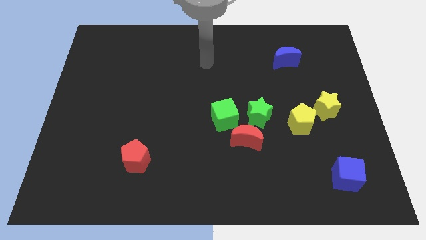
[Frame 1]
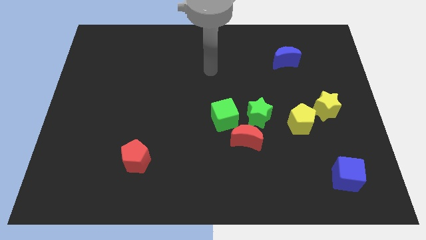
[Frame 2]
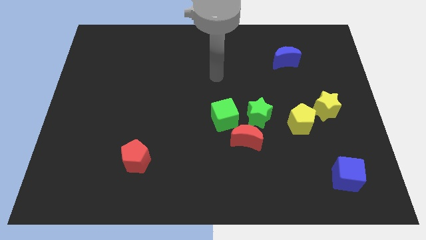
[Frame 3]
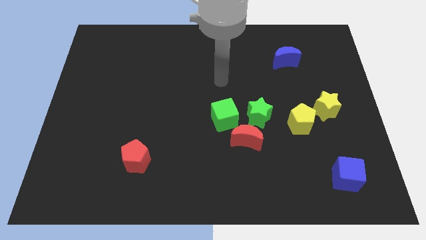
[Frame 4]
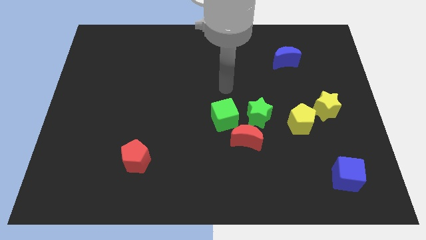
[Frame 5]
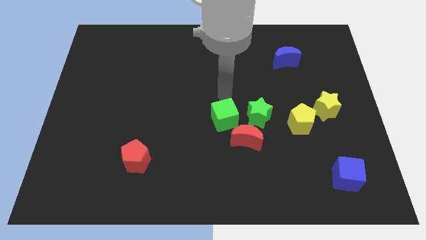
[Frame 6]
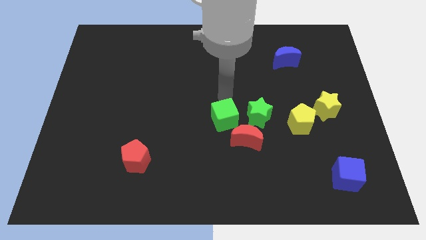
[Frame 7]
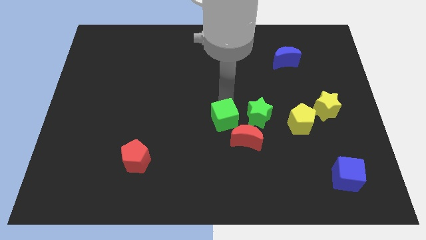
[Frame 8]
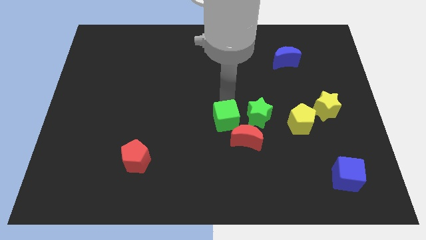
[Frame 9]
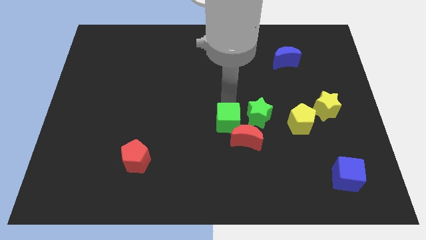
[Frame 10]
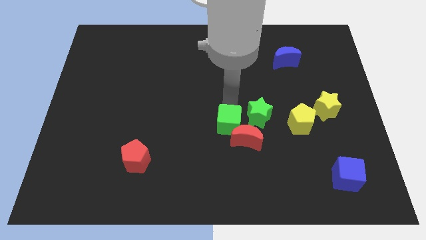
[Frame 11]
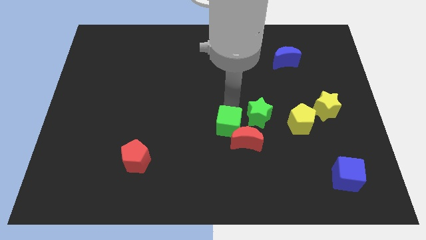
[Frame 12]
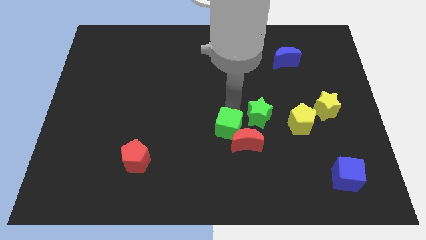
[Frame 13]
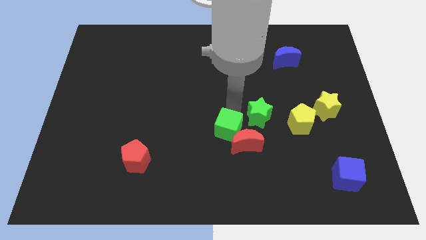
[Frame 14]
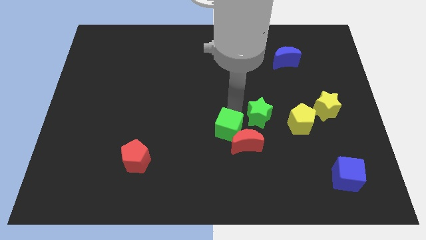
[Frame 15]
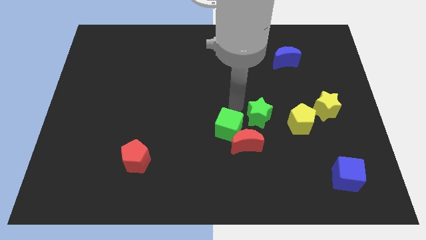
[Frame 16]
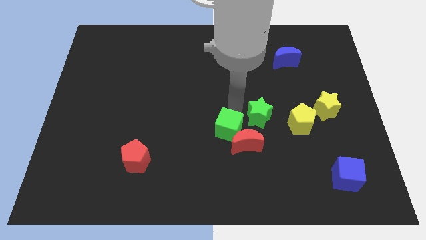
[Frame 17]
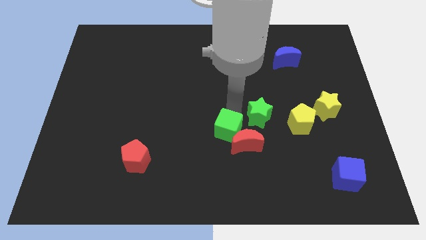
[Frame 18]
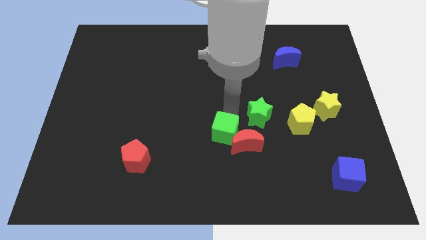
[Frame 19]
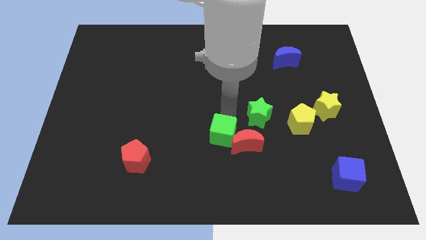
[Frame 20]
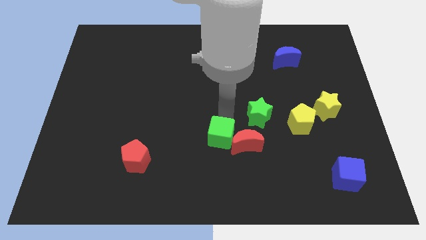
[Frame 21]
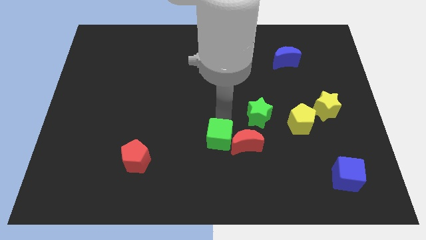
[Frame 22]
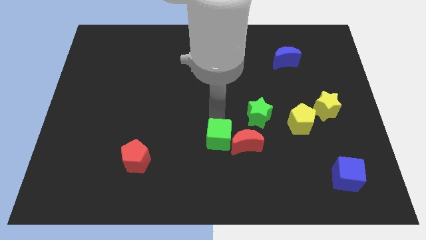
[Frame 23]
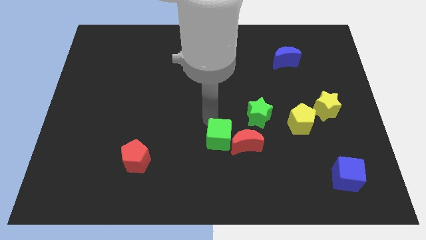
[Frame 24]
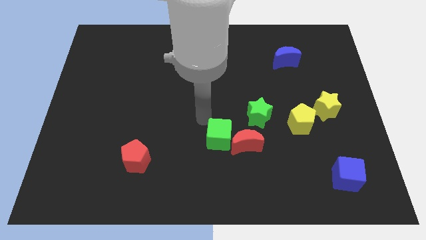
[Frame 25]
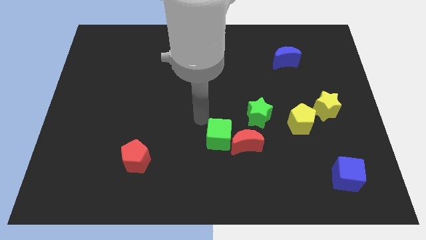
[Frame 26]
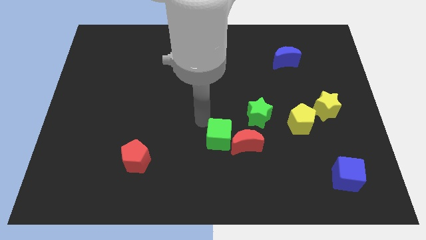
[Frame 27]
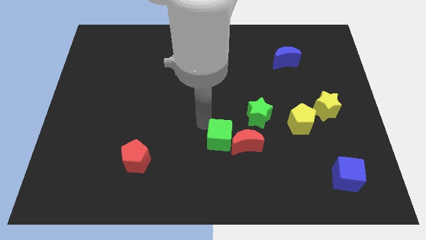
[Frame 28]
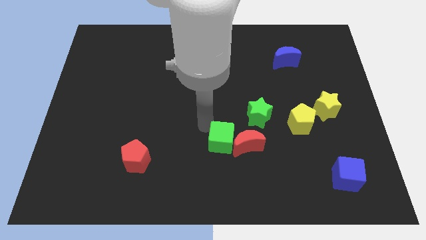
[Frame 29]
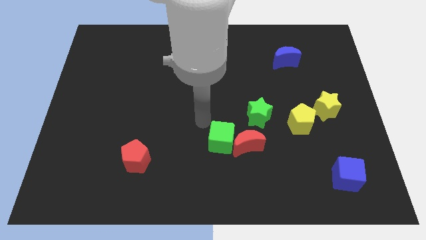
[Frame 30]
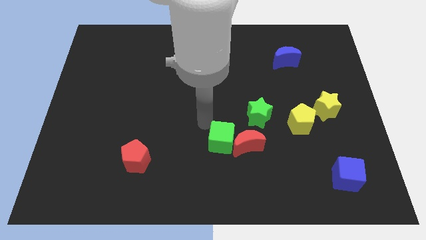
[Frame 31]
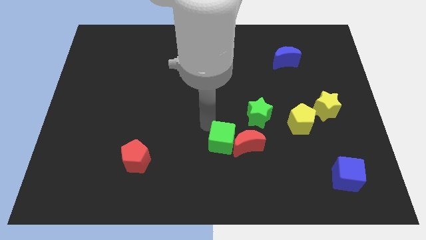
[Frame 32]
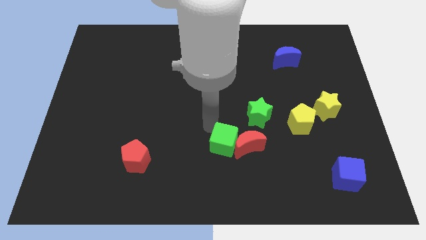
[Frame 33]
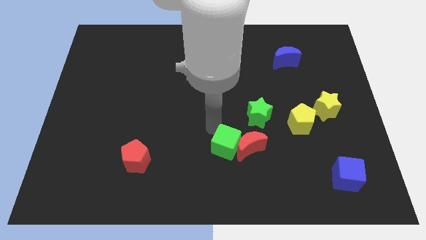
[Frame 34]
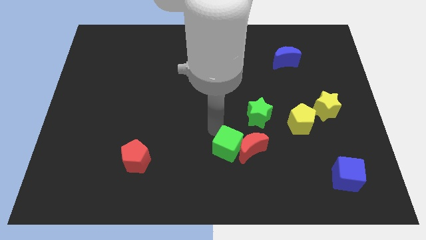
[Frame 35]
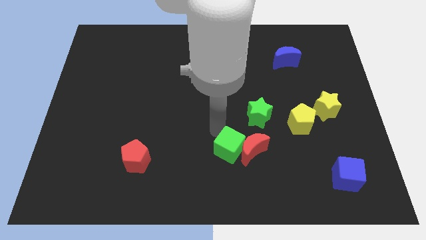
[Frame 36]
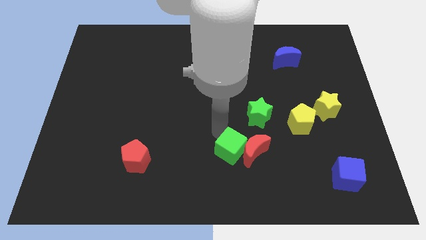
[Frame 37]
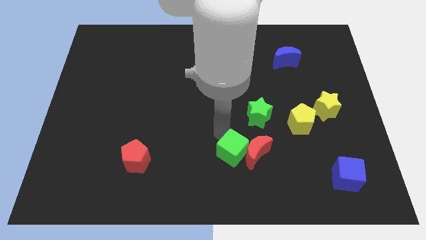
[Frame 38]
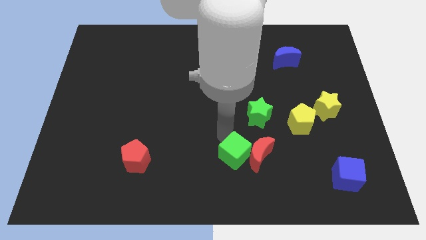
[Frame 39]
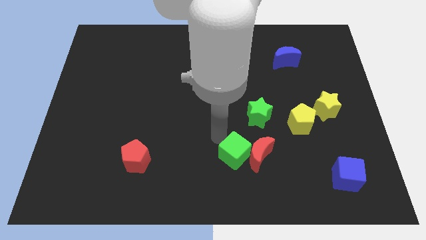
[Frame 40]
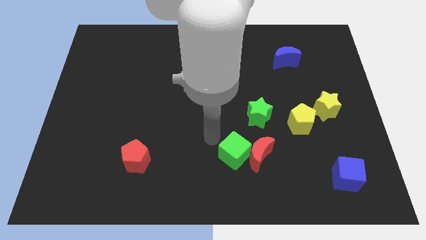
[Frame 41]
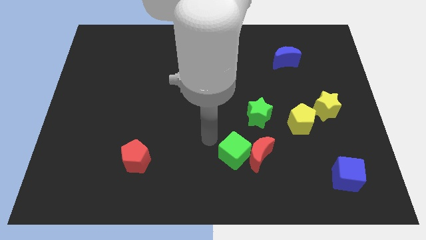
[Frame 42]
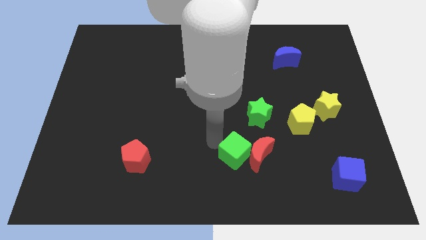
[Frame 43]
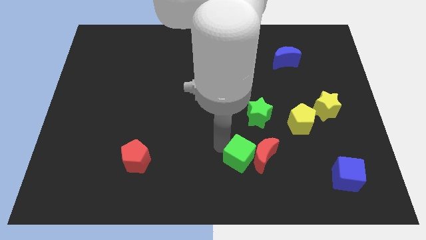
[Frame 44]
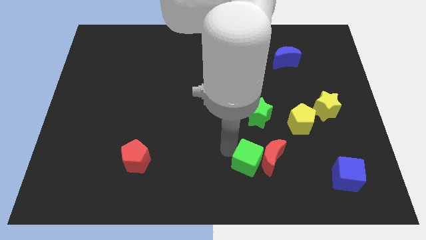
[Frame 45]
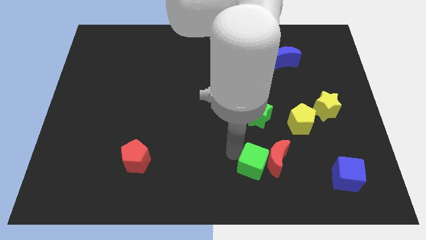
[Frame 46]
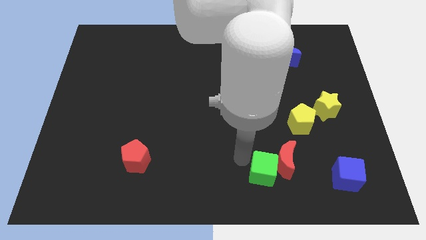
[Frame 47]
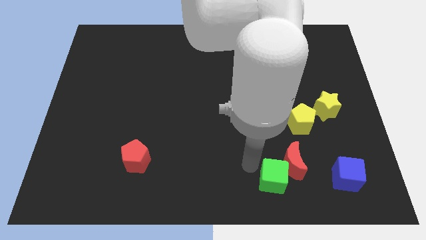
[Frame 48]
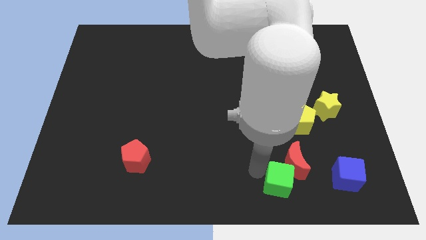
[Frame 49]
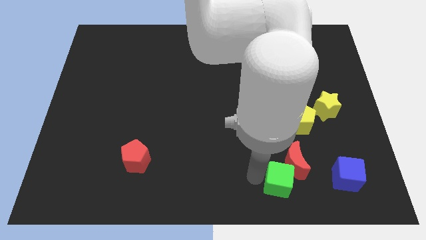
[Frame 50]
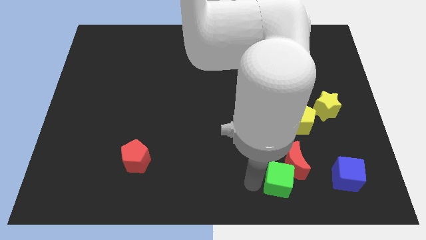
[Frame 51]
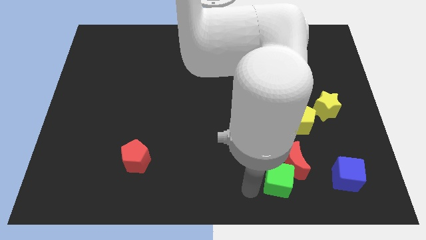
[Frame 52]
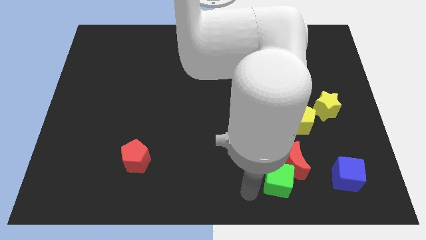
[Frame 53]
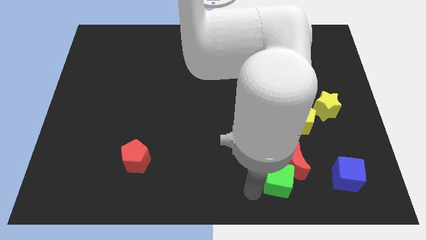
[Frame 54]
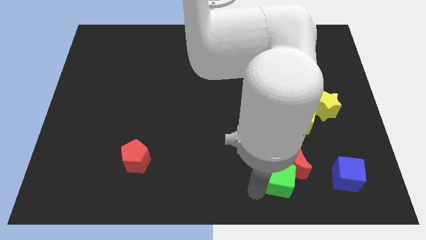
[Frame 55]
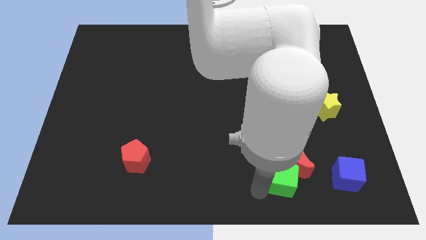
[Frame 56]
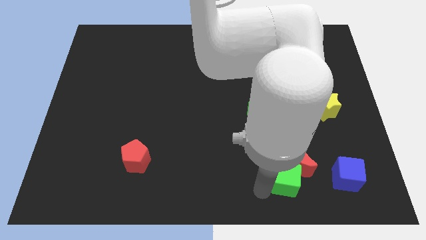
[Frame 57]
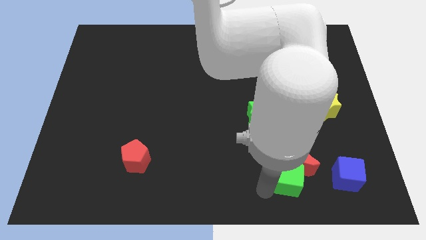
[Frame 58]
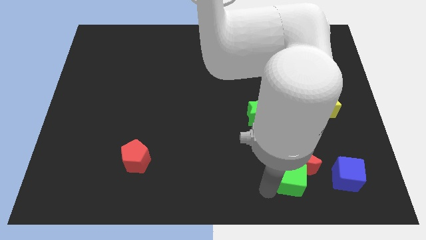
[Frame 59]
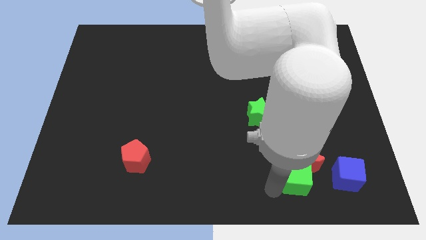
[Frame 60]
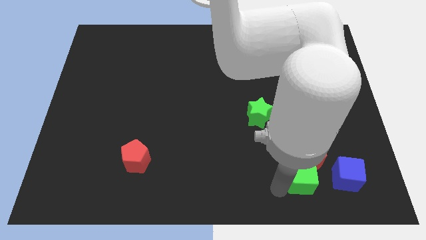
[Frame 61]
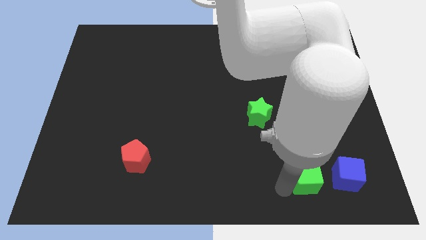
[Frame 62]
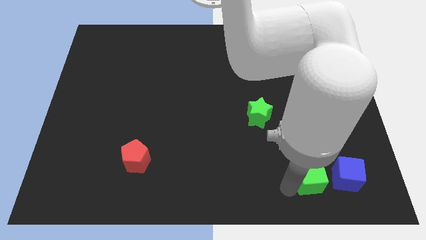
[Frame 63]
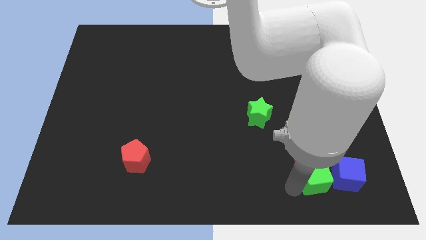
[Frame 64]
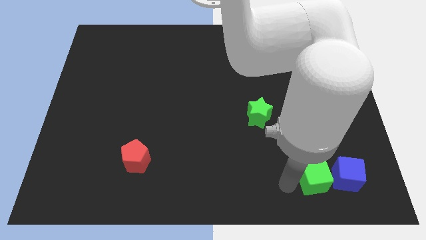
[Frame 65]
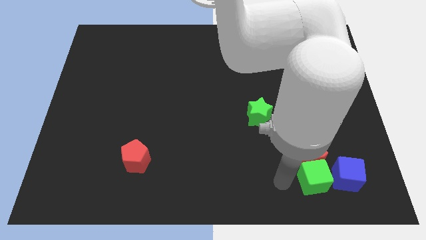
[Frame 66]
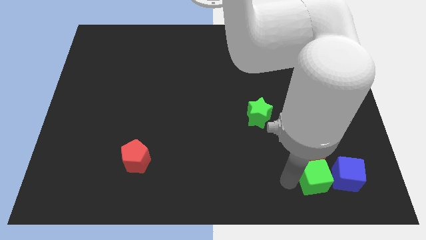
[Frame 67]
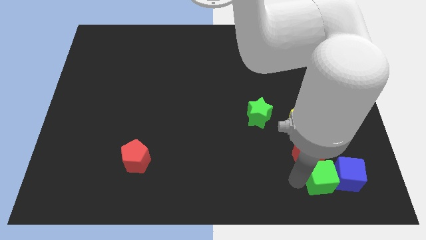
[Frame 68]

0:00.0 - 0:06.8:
put the green cube close to the blue cube
